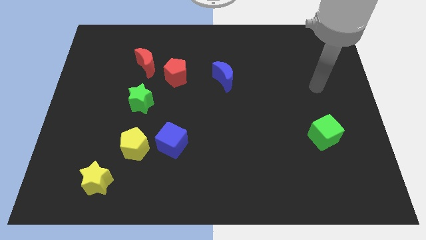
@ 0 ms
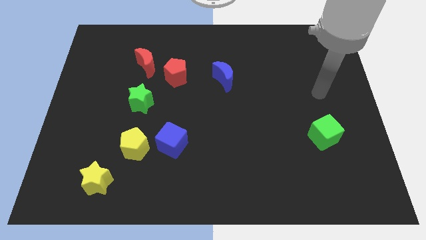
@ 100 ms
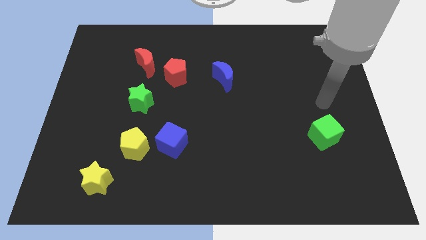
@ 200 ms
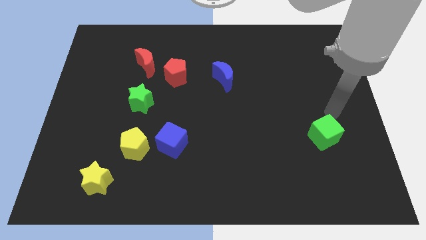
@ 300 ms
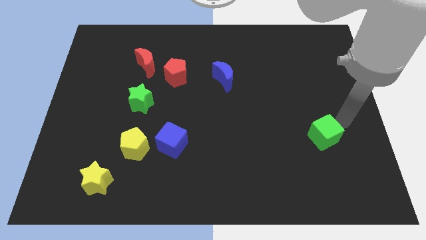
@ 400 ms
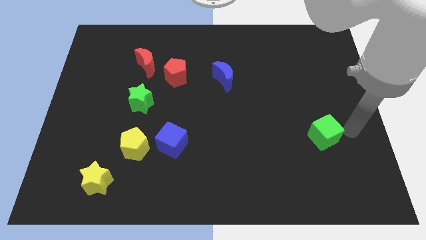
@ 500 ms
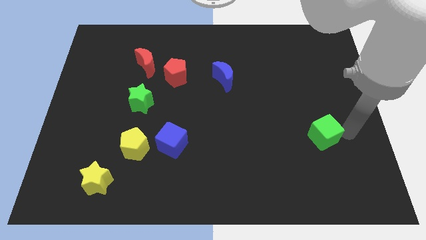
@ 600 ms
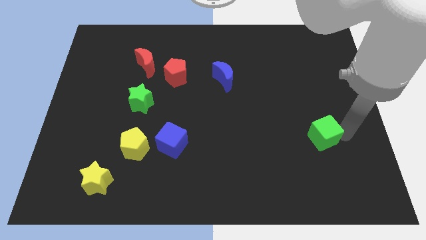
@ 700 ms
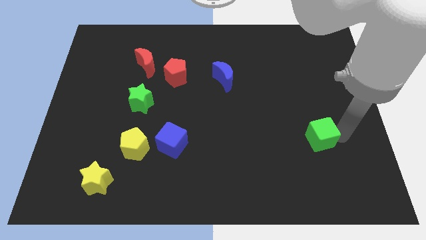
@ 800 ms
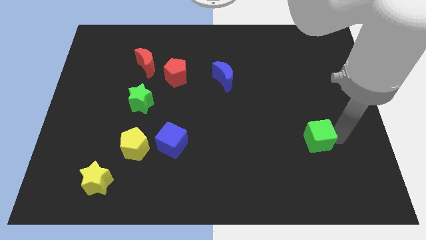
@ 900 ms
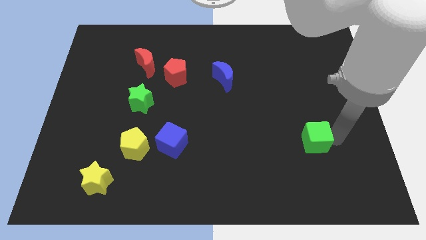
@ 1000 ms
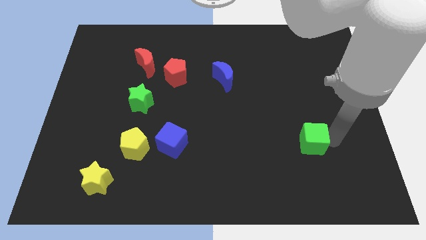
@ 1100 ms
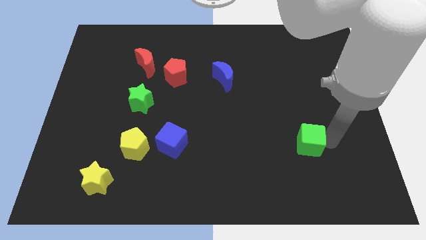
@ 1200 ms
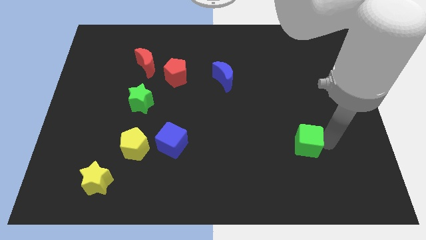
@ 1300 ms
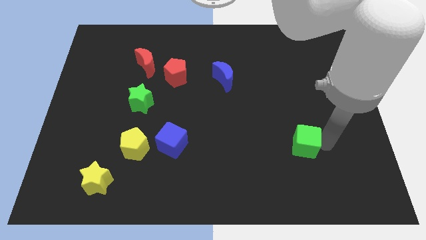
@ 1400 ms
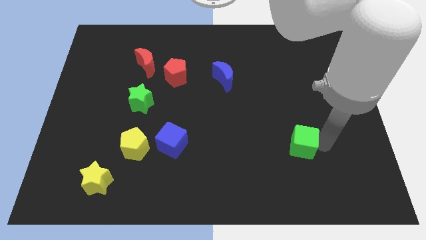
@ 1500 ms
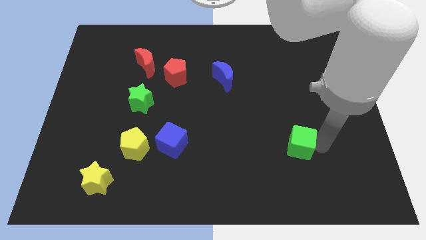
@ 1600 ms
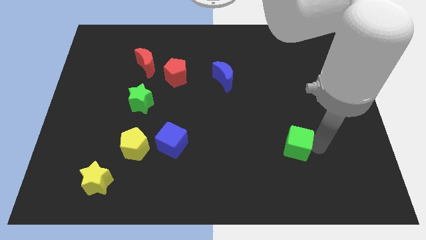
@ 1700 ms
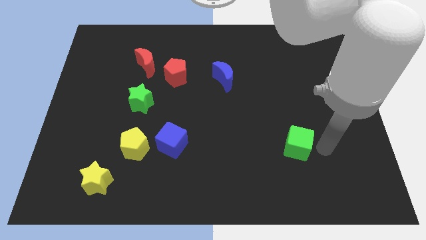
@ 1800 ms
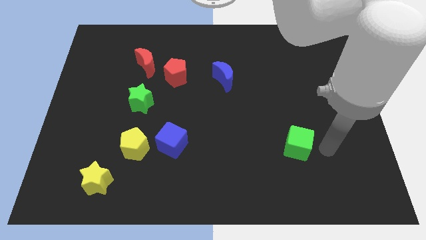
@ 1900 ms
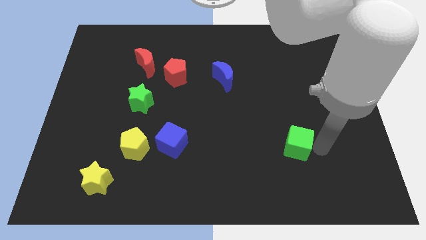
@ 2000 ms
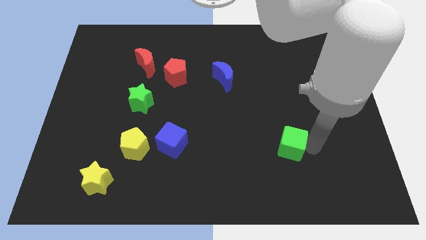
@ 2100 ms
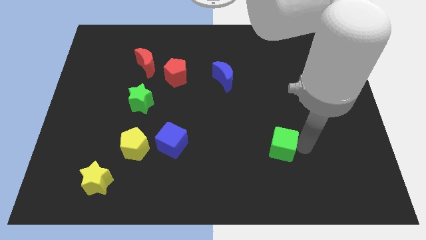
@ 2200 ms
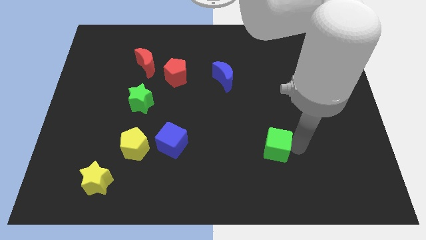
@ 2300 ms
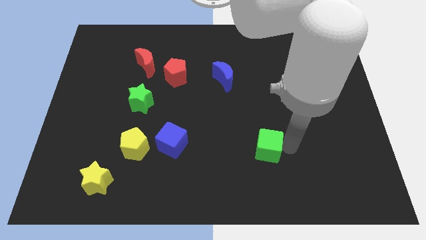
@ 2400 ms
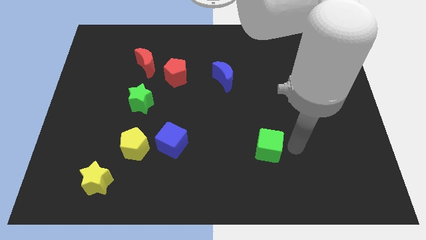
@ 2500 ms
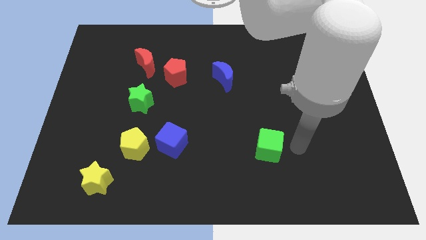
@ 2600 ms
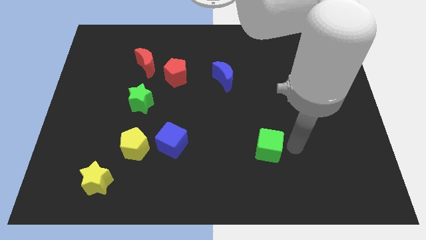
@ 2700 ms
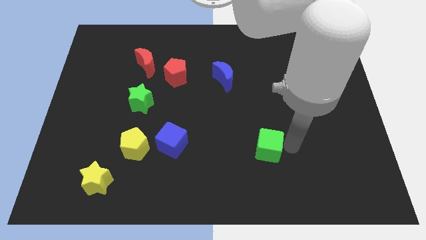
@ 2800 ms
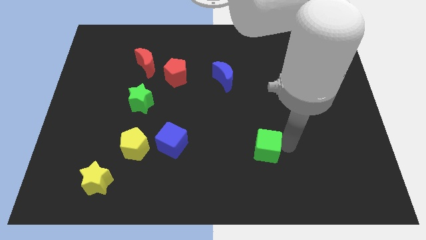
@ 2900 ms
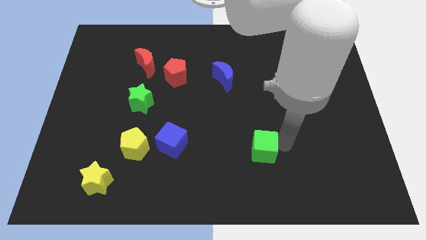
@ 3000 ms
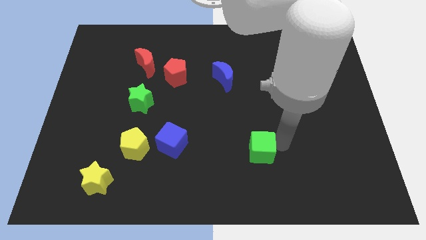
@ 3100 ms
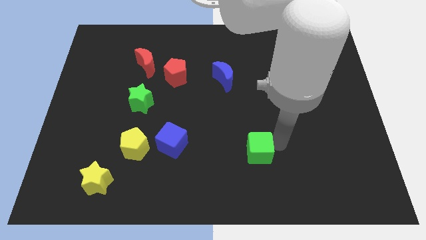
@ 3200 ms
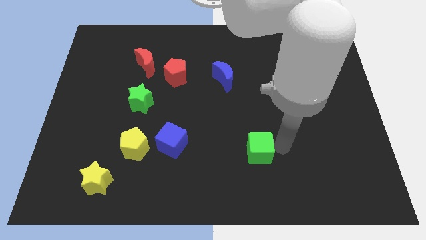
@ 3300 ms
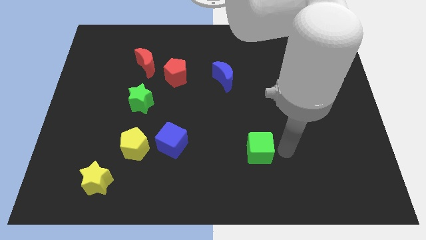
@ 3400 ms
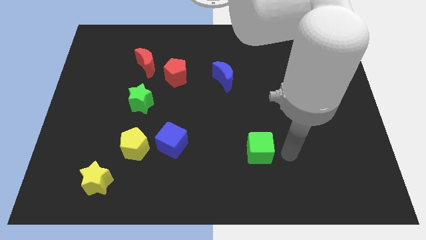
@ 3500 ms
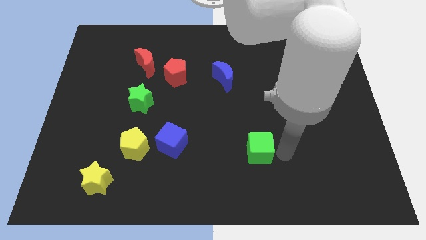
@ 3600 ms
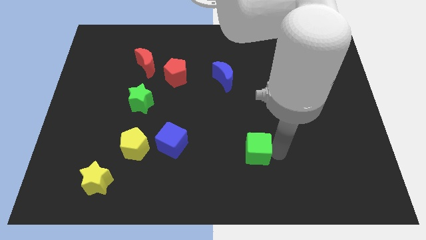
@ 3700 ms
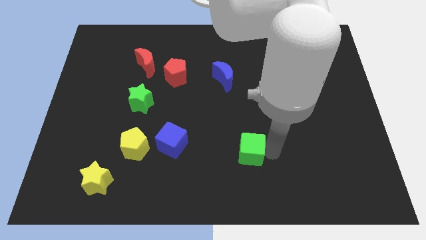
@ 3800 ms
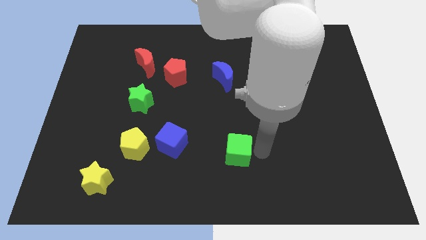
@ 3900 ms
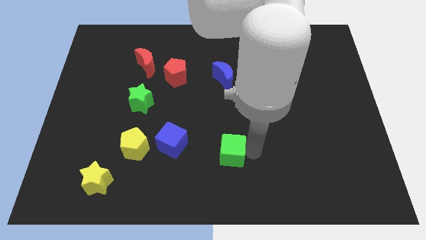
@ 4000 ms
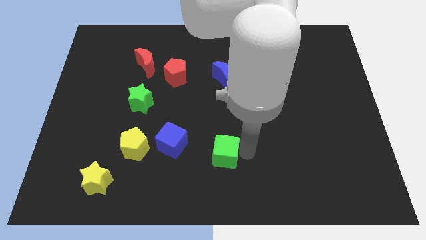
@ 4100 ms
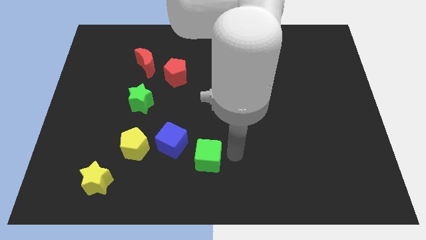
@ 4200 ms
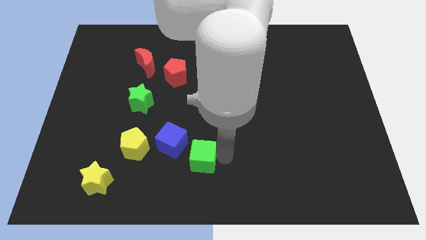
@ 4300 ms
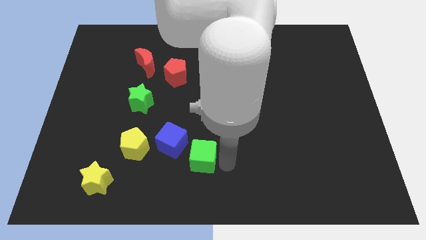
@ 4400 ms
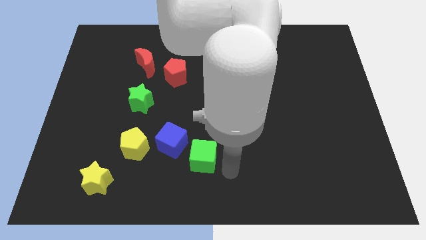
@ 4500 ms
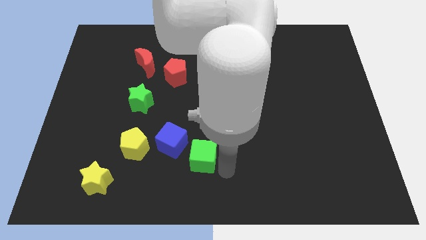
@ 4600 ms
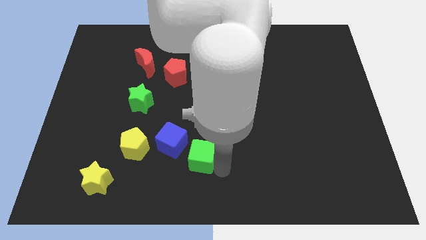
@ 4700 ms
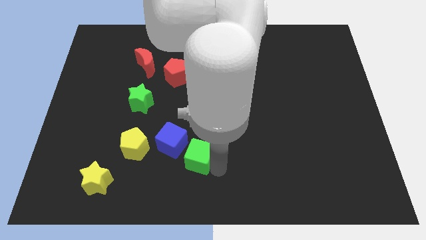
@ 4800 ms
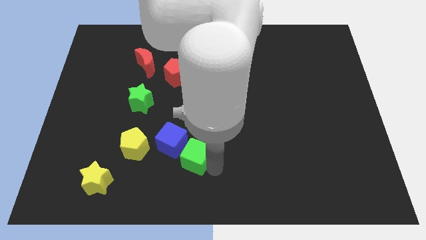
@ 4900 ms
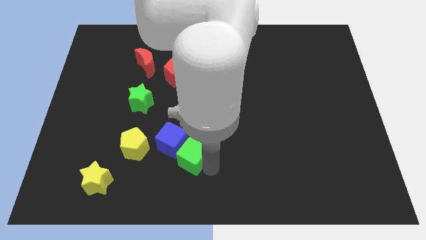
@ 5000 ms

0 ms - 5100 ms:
slide the green cube next to the blue cube

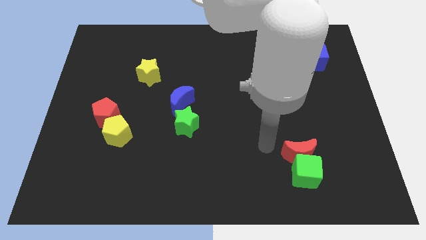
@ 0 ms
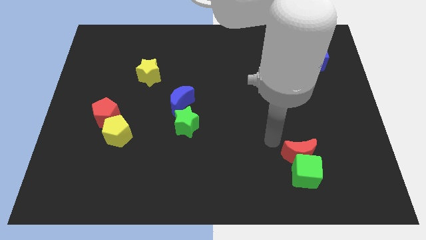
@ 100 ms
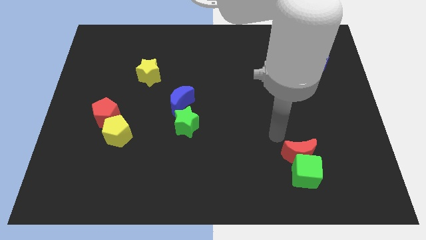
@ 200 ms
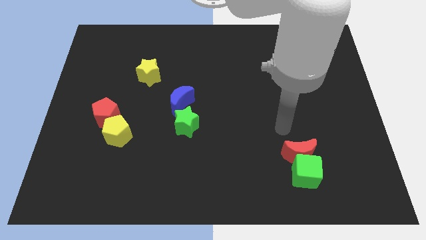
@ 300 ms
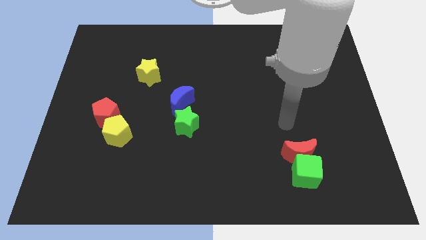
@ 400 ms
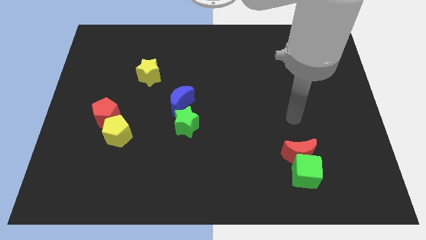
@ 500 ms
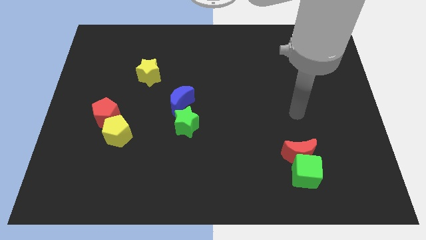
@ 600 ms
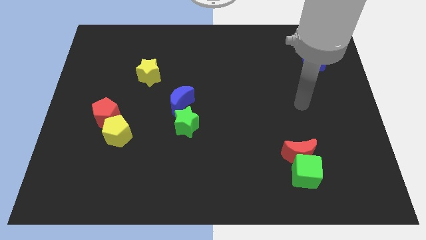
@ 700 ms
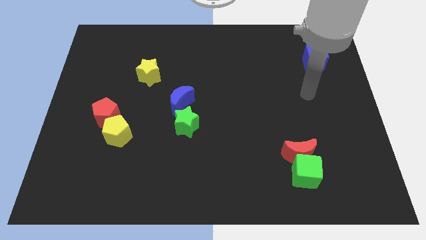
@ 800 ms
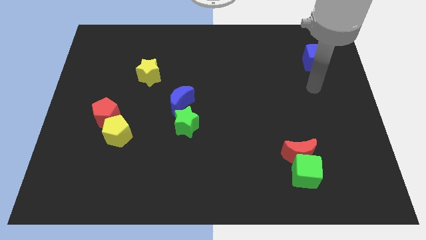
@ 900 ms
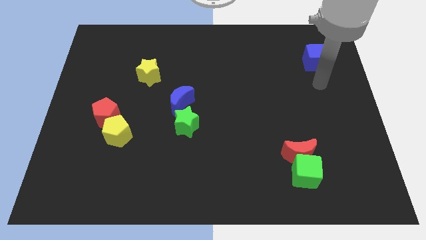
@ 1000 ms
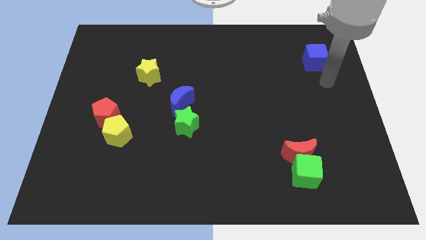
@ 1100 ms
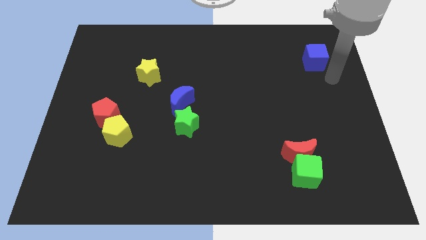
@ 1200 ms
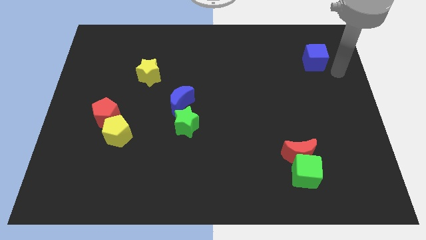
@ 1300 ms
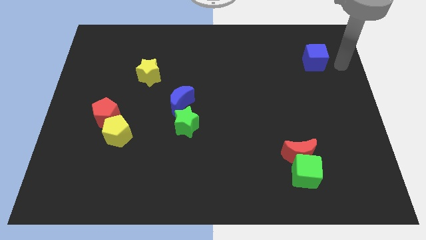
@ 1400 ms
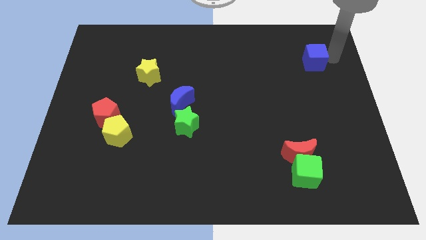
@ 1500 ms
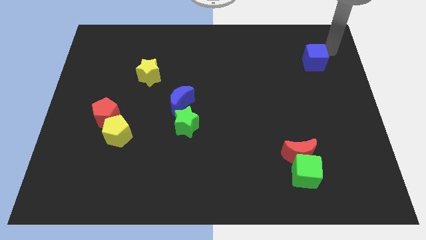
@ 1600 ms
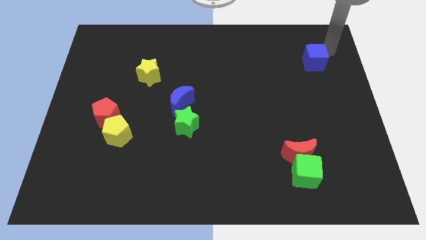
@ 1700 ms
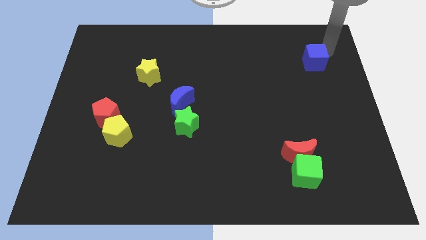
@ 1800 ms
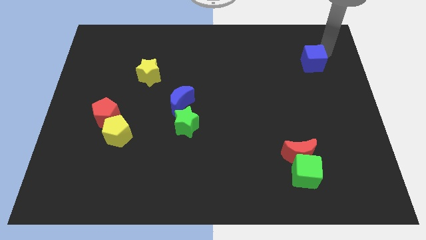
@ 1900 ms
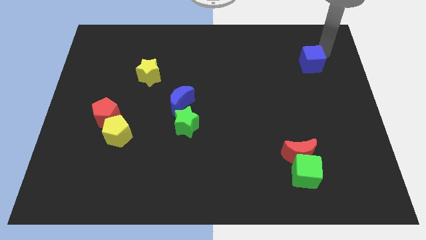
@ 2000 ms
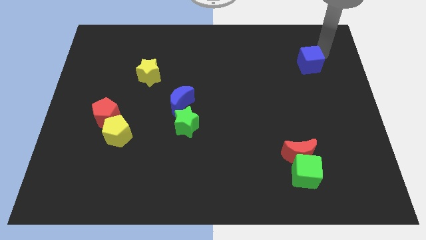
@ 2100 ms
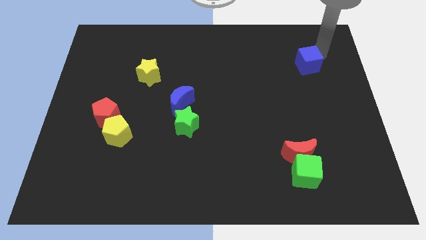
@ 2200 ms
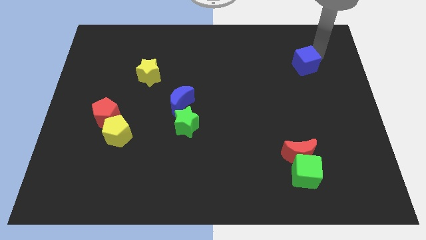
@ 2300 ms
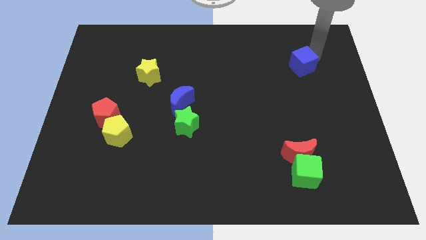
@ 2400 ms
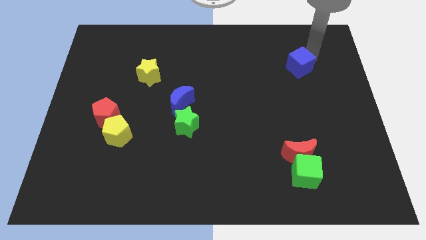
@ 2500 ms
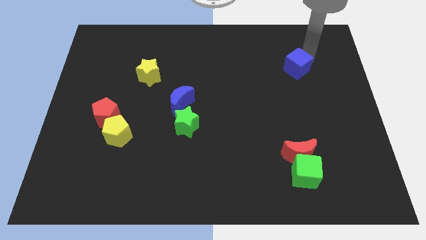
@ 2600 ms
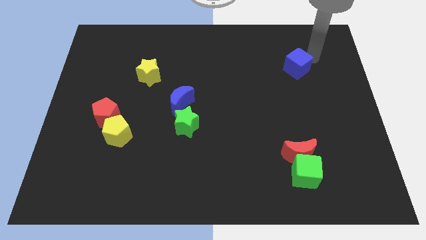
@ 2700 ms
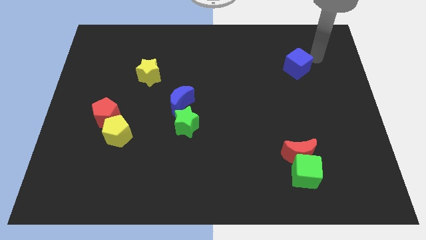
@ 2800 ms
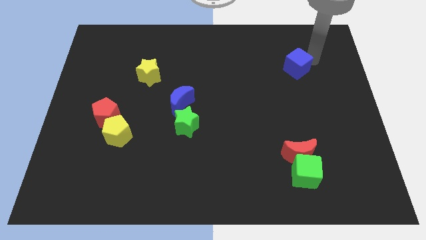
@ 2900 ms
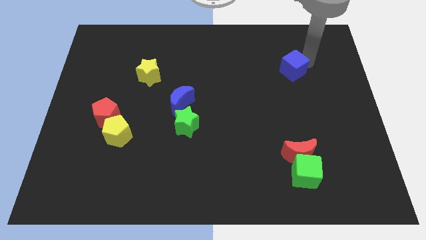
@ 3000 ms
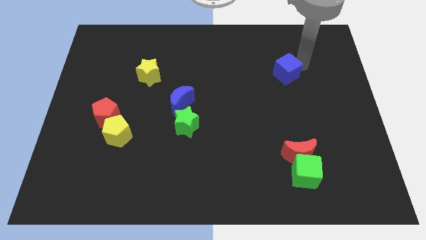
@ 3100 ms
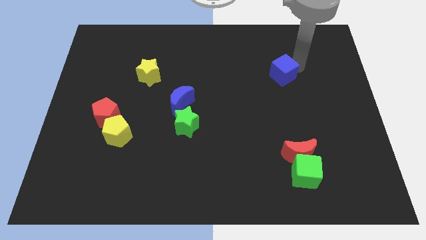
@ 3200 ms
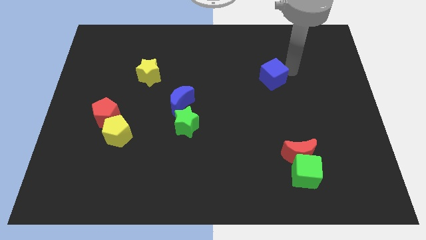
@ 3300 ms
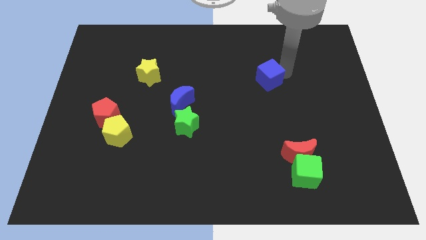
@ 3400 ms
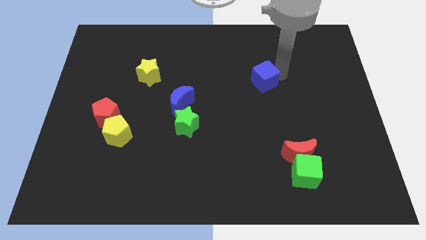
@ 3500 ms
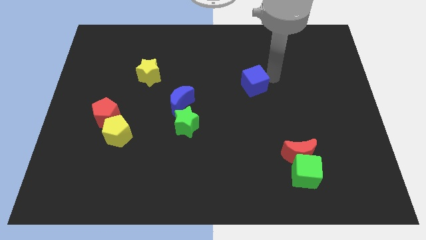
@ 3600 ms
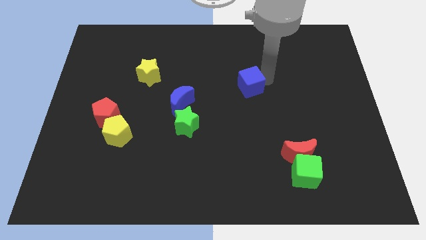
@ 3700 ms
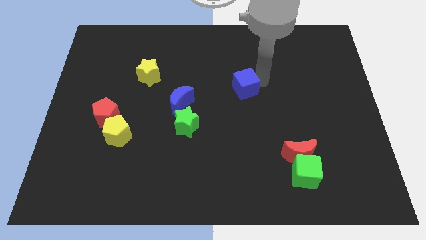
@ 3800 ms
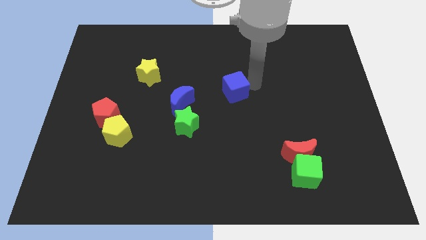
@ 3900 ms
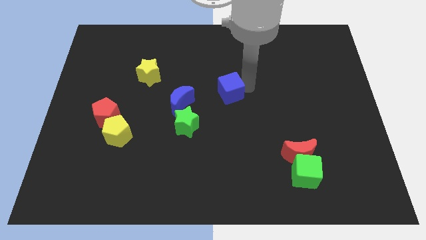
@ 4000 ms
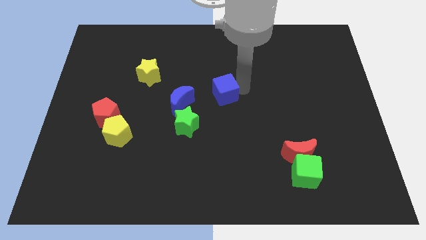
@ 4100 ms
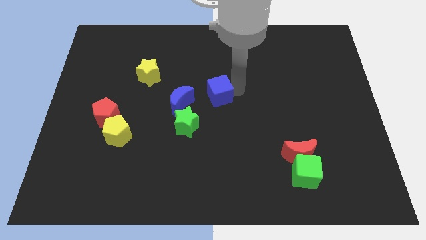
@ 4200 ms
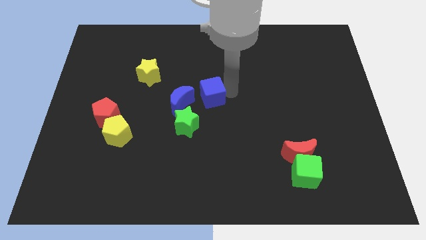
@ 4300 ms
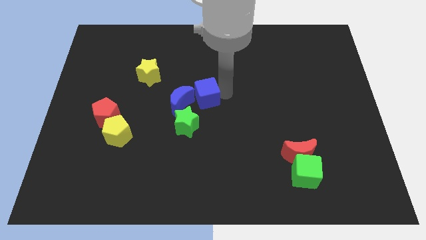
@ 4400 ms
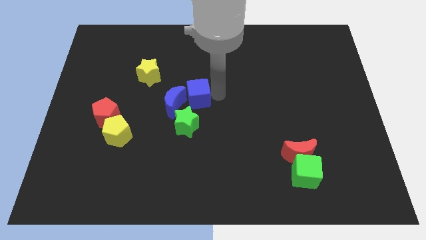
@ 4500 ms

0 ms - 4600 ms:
move the blue cube close to the blue moon
